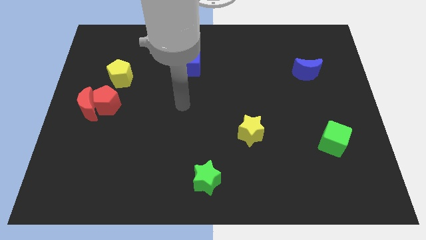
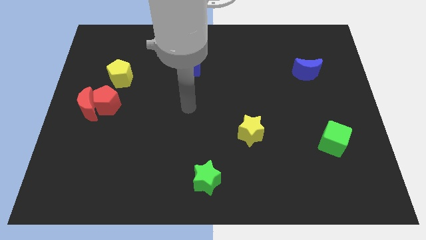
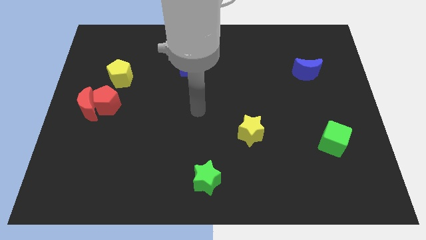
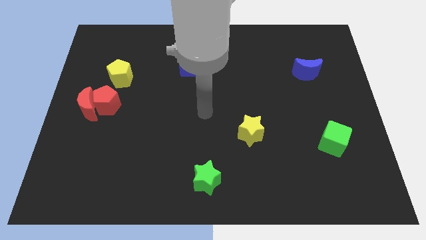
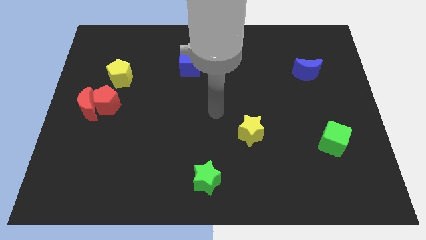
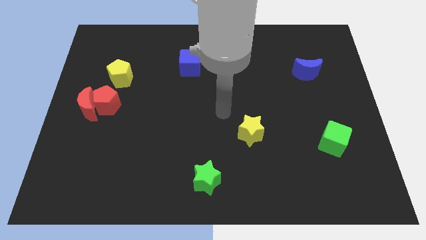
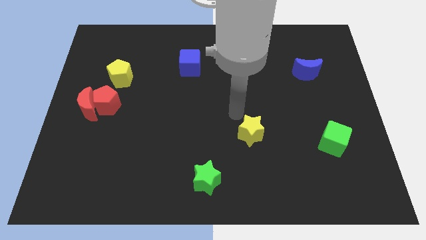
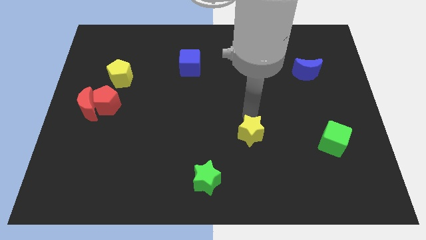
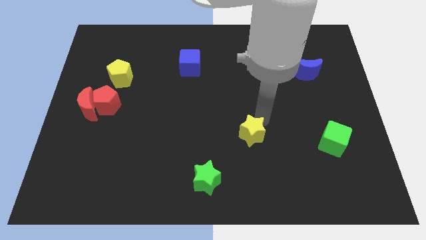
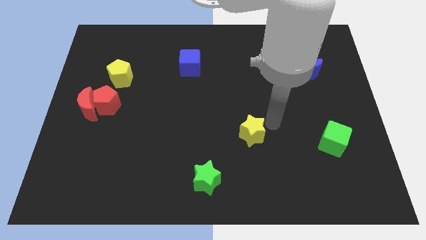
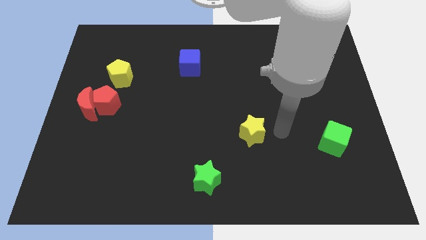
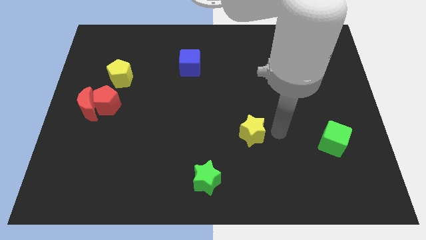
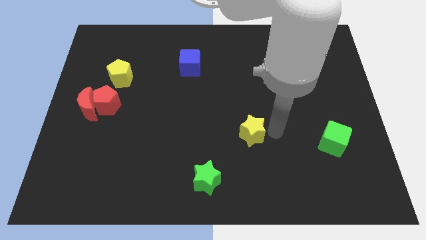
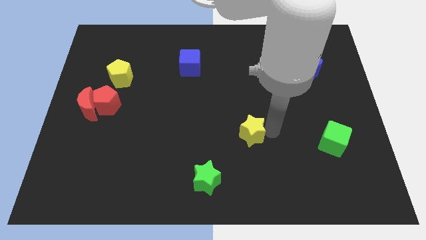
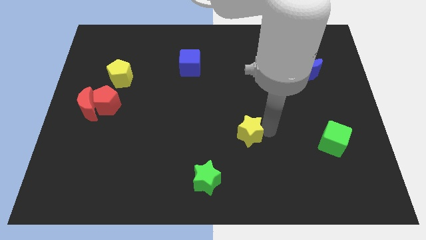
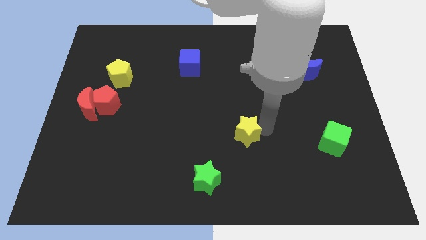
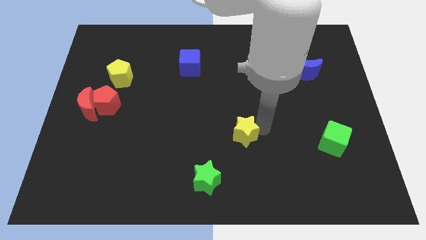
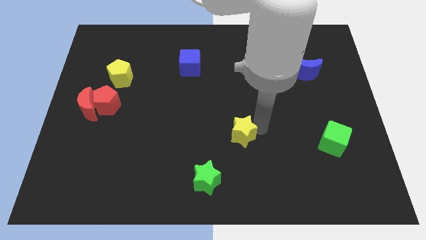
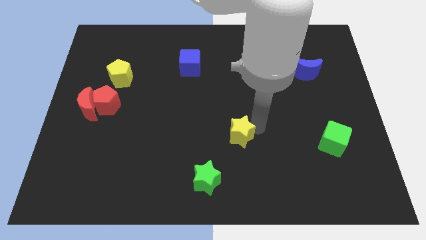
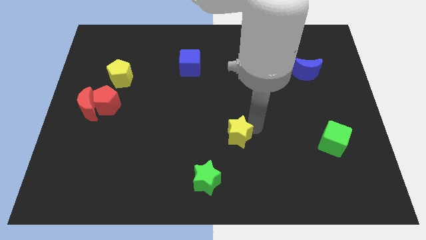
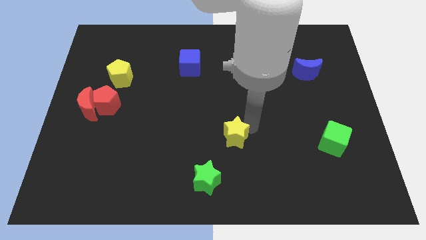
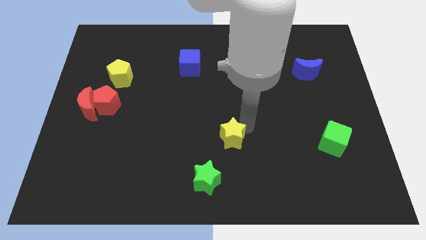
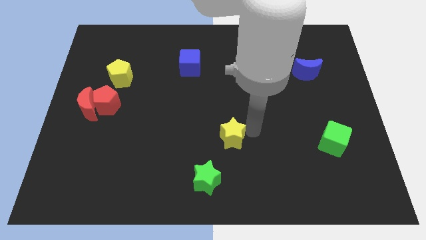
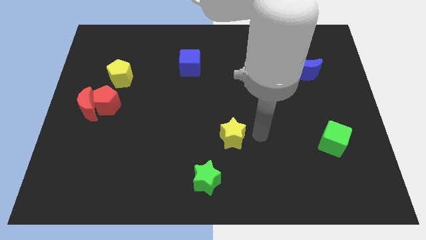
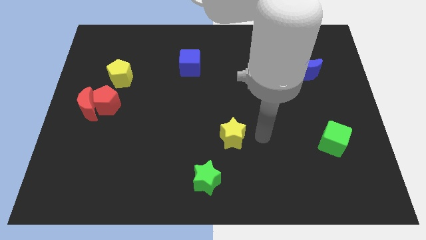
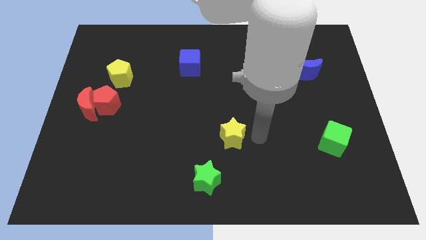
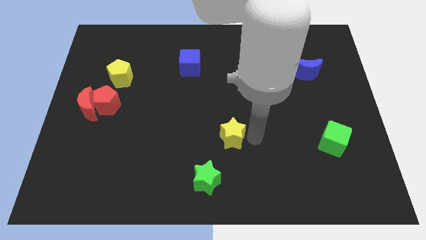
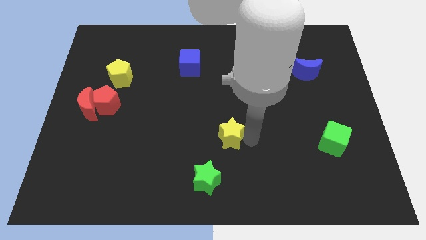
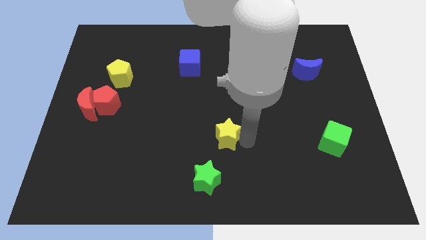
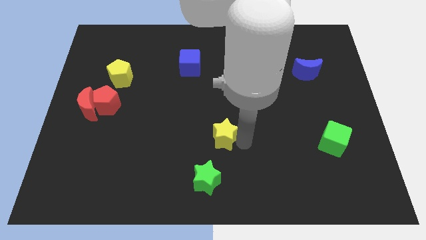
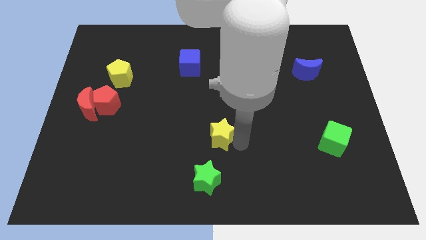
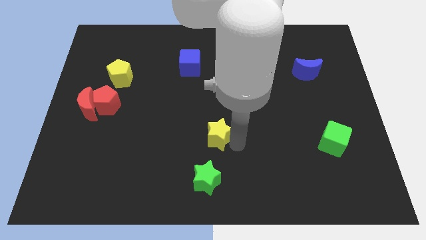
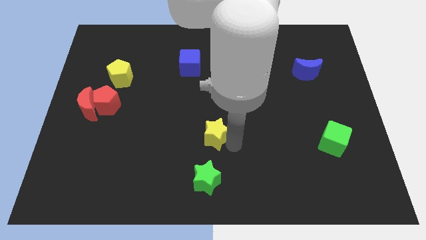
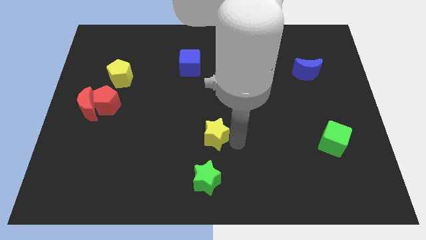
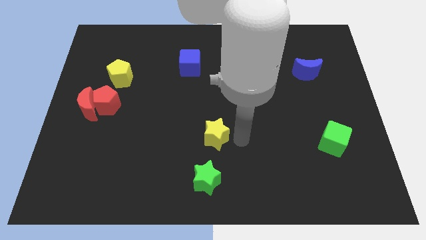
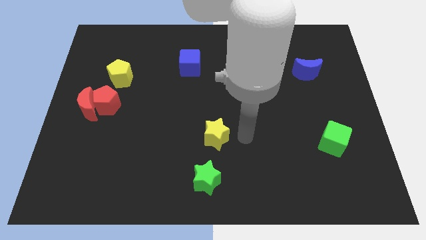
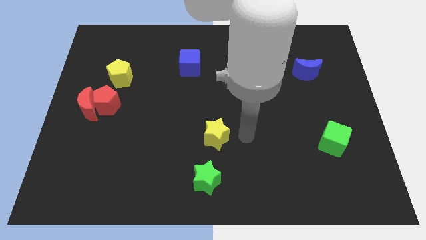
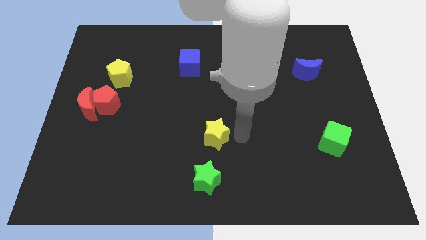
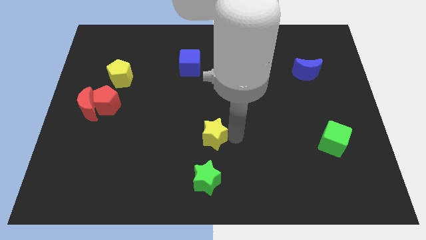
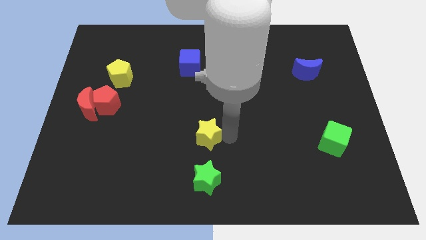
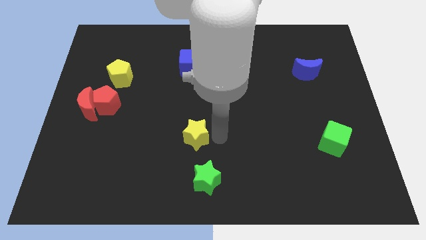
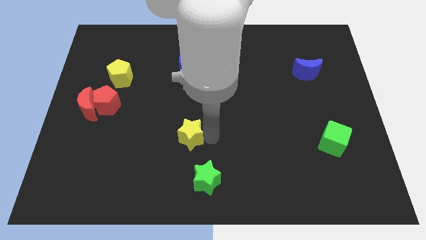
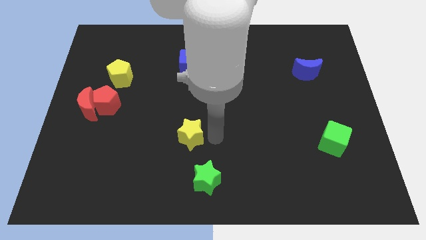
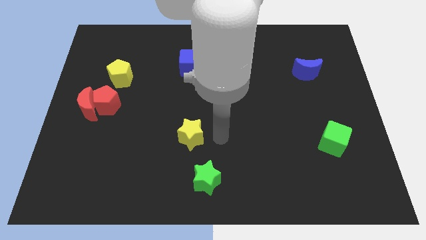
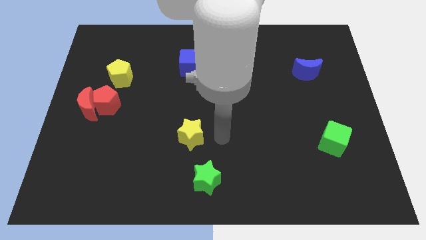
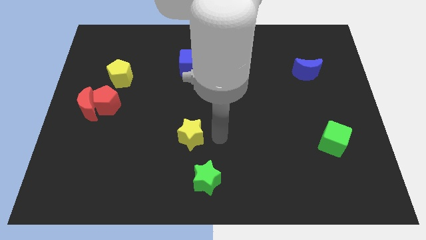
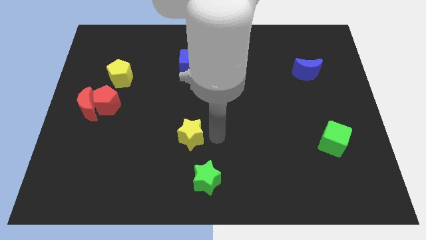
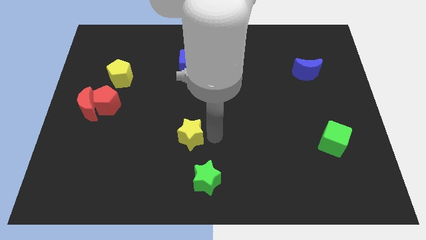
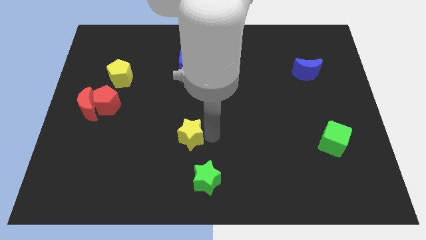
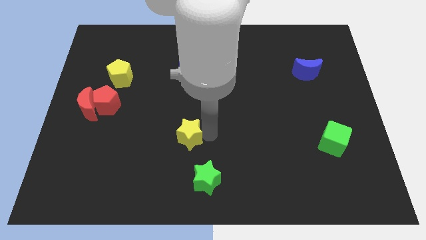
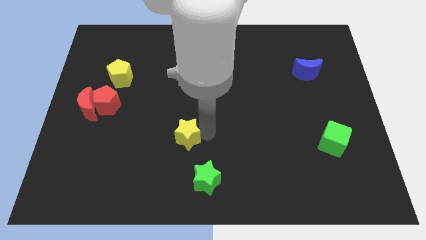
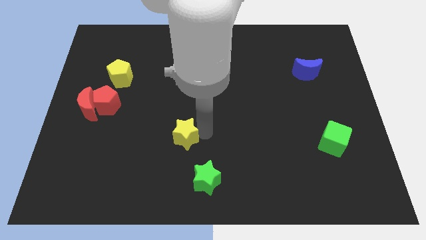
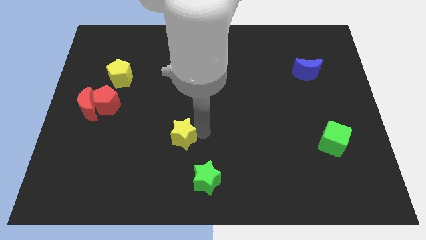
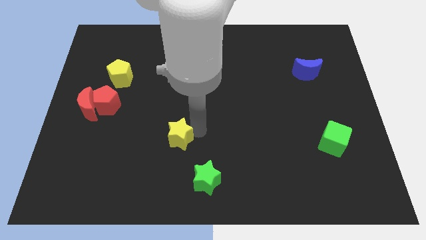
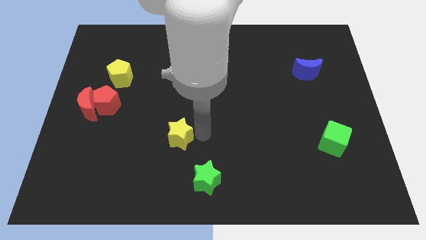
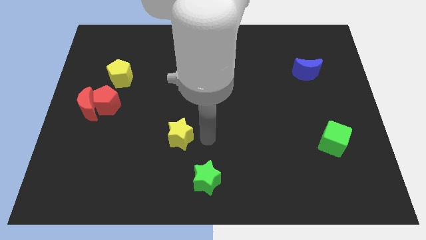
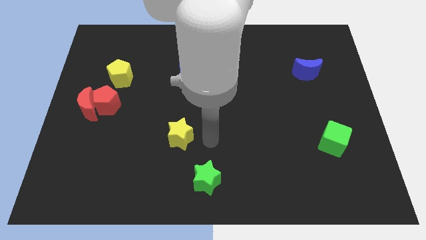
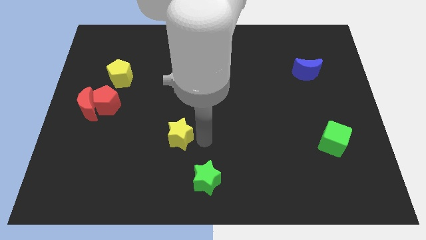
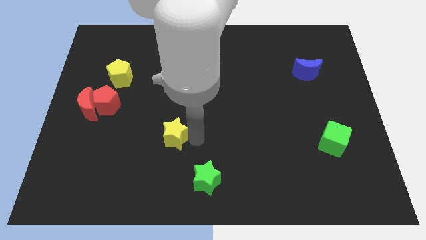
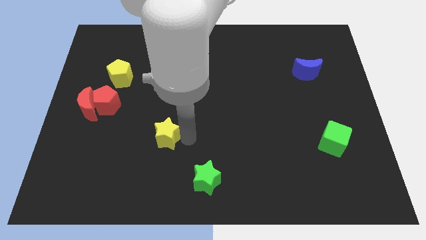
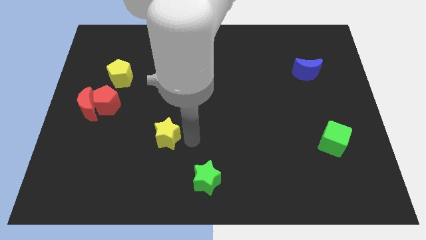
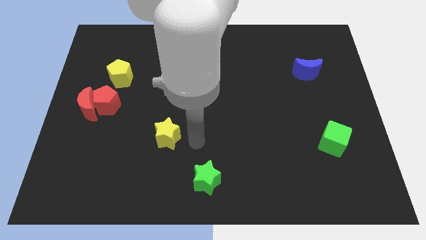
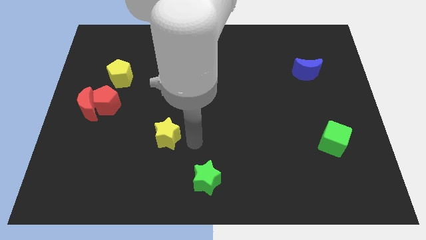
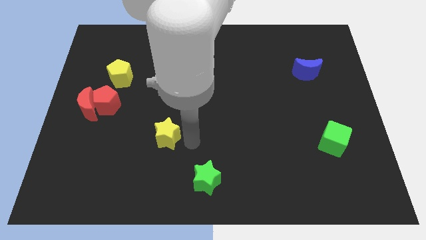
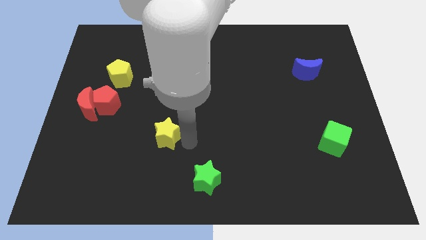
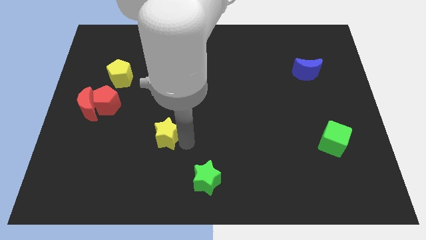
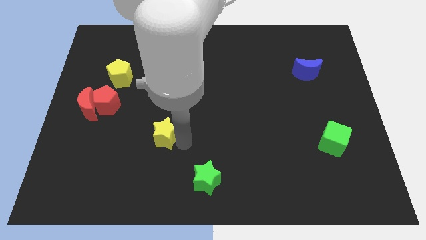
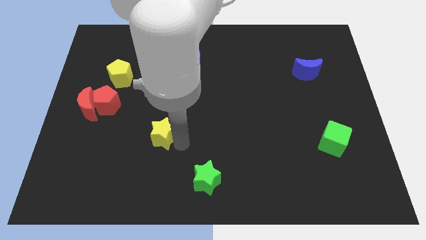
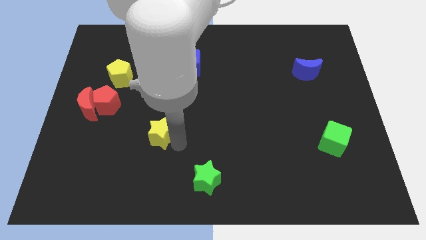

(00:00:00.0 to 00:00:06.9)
move the yellow star left

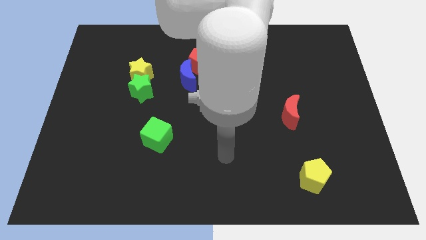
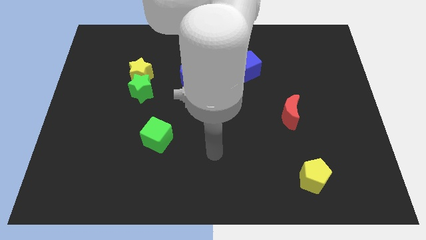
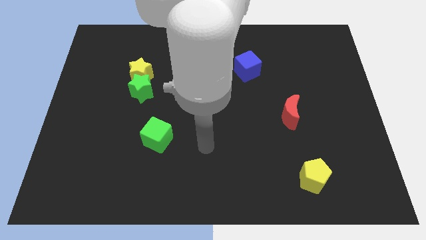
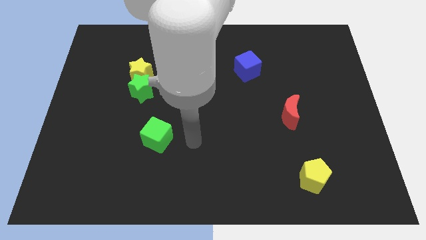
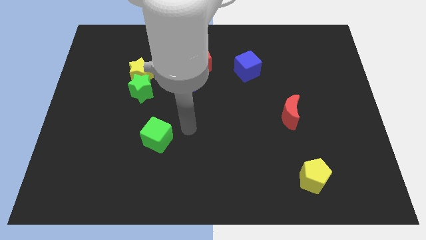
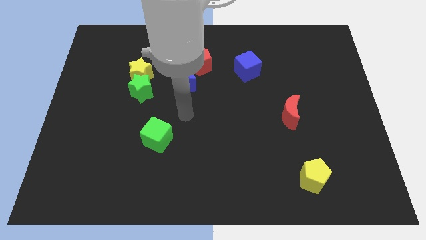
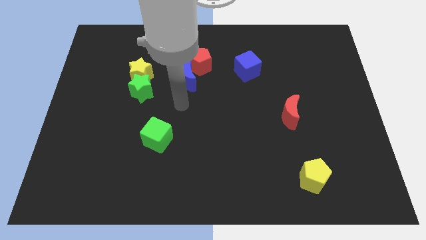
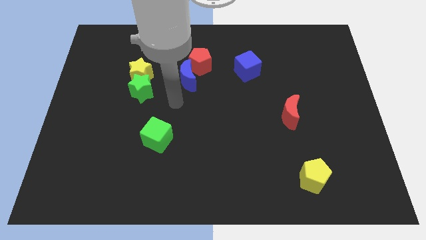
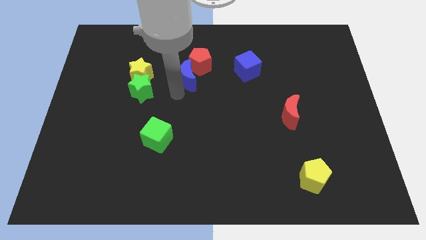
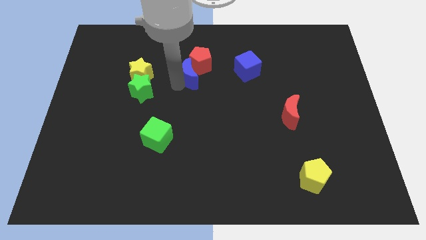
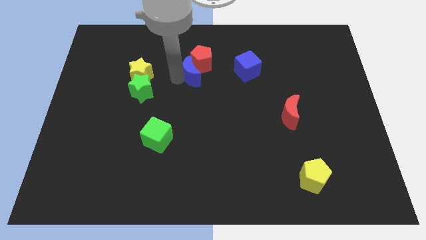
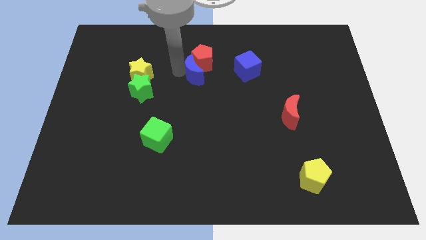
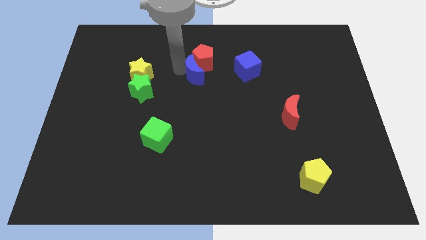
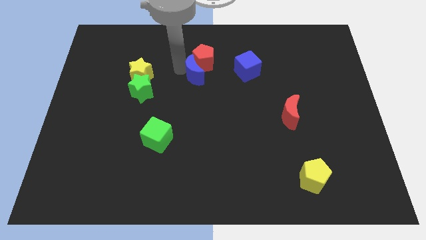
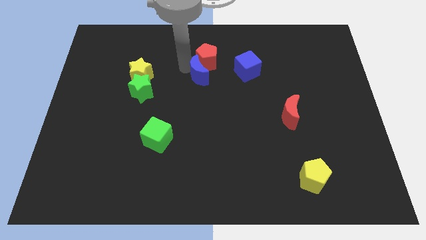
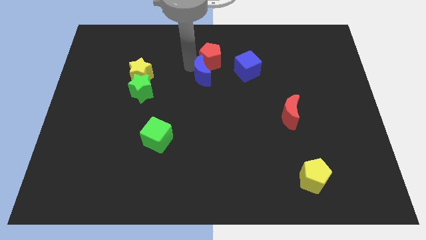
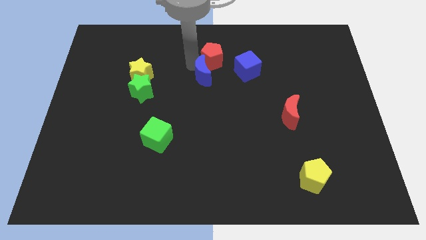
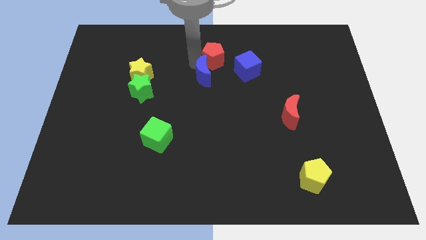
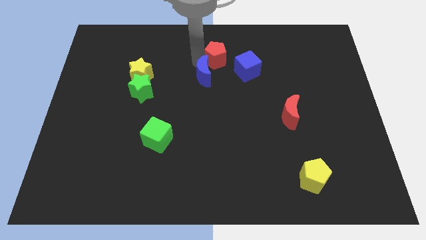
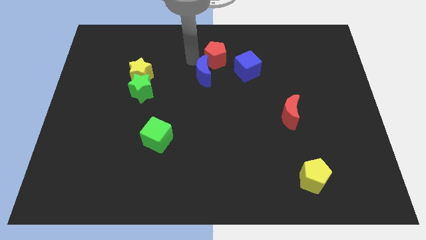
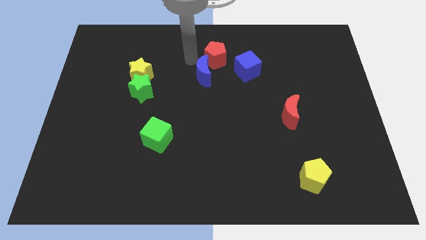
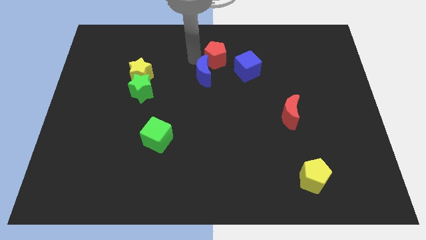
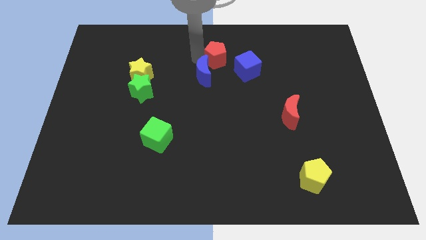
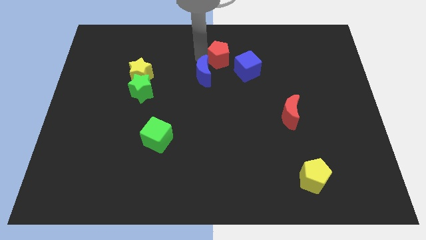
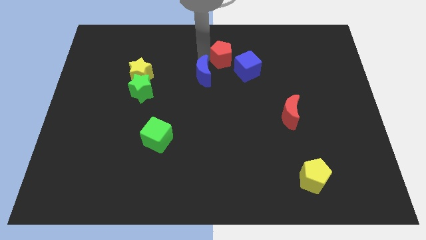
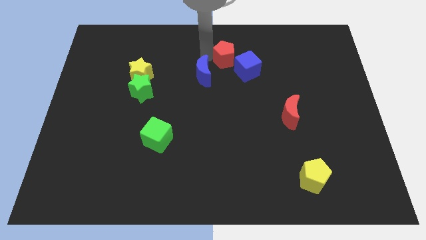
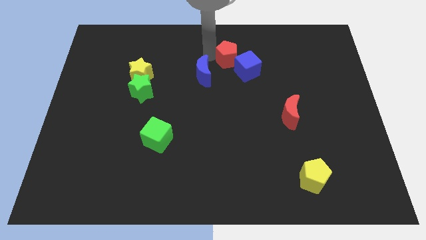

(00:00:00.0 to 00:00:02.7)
move the red pentagon a little bit to the right
